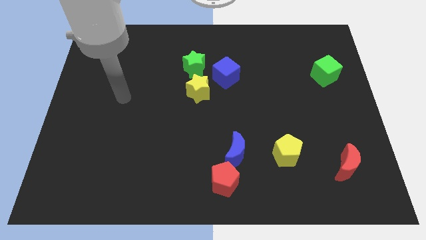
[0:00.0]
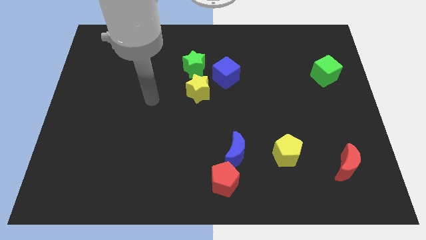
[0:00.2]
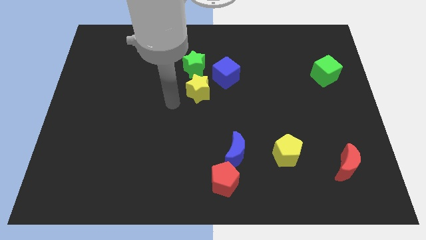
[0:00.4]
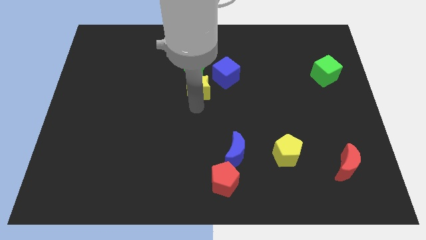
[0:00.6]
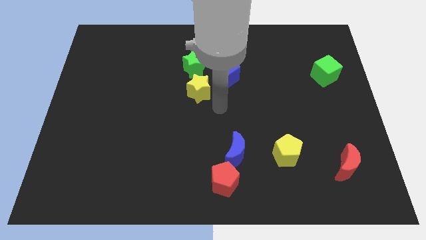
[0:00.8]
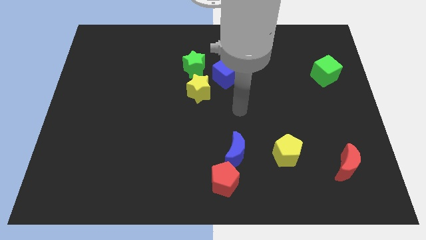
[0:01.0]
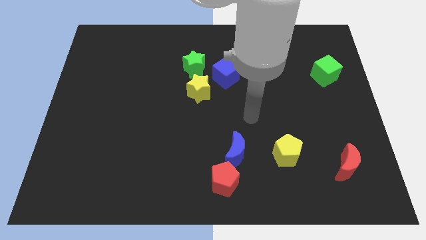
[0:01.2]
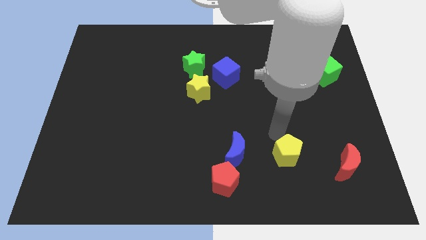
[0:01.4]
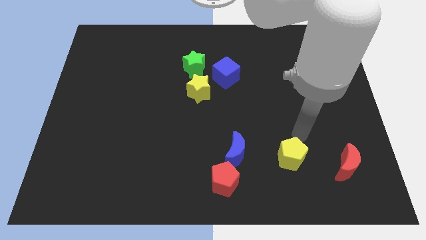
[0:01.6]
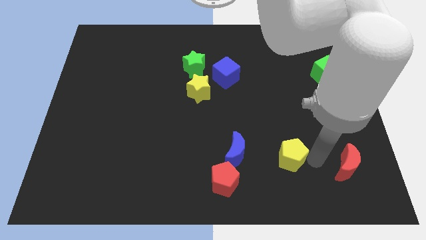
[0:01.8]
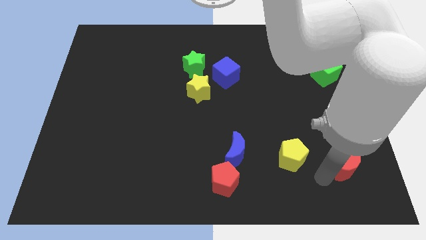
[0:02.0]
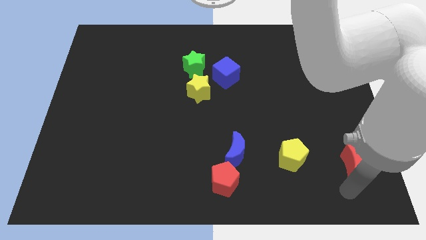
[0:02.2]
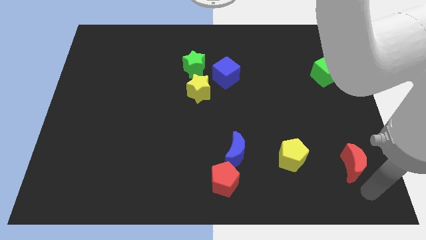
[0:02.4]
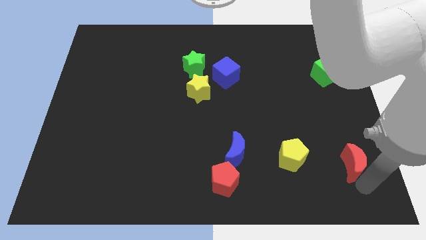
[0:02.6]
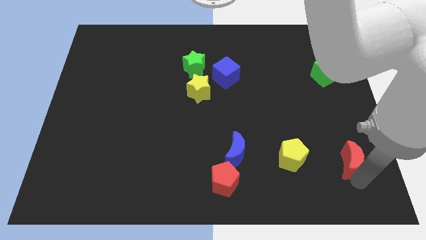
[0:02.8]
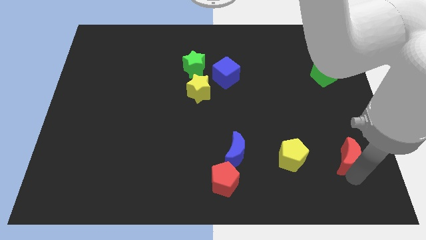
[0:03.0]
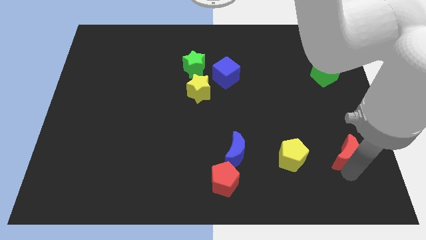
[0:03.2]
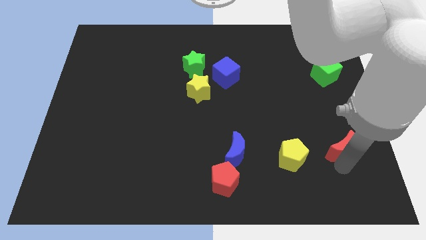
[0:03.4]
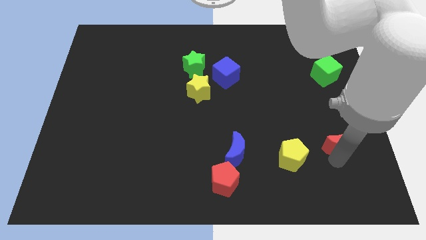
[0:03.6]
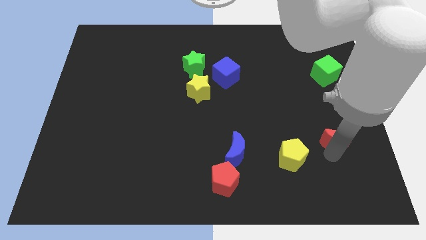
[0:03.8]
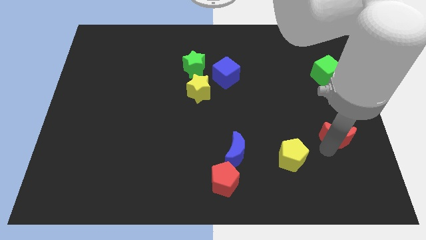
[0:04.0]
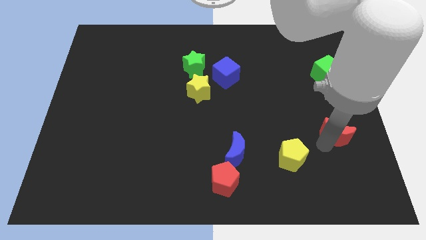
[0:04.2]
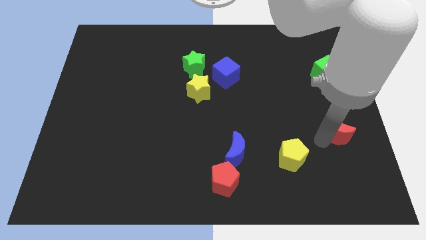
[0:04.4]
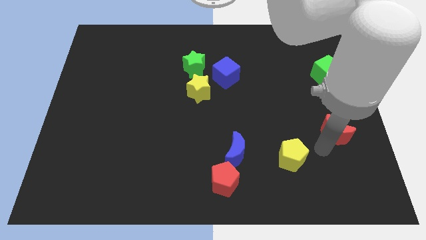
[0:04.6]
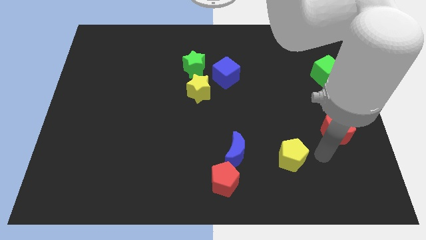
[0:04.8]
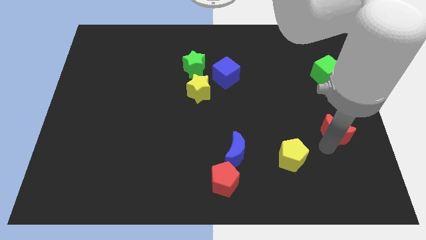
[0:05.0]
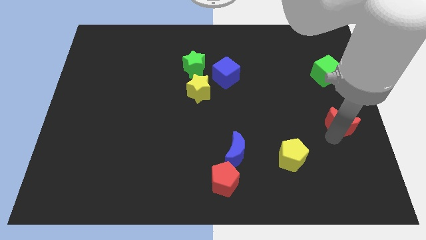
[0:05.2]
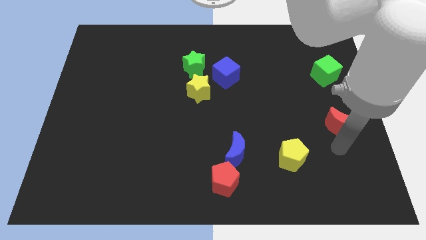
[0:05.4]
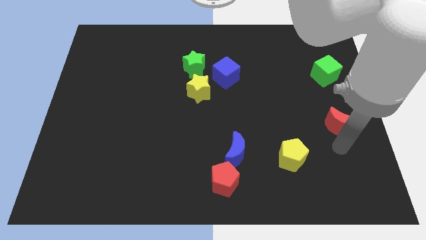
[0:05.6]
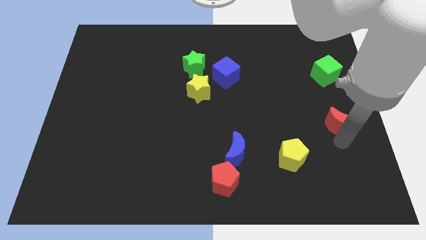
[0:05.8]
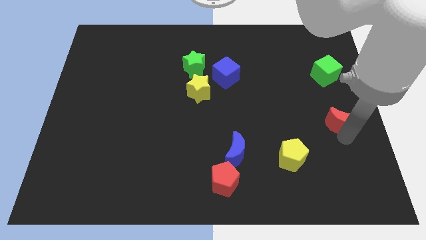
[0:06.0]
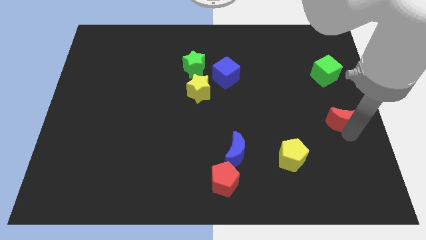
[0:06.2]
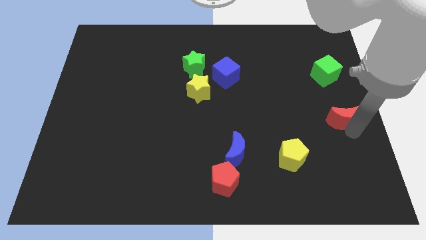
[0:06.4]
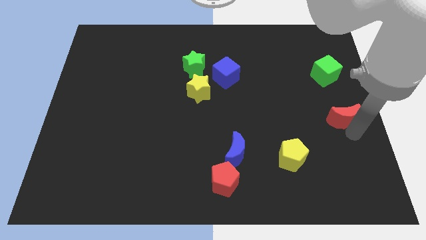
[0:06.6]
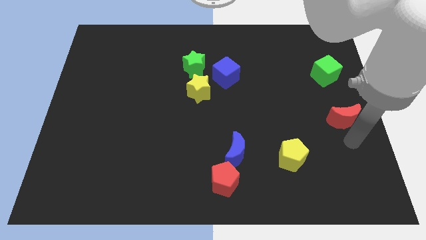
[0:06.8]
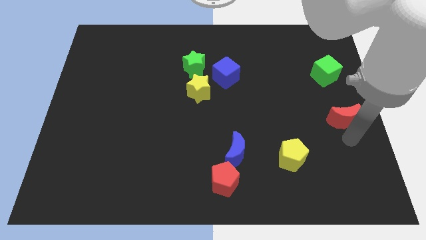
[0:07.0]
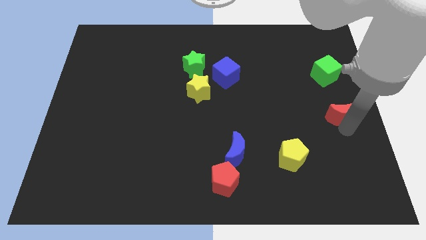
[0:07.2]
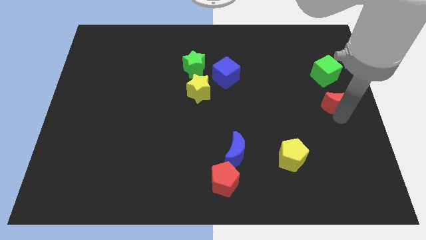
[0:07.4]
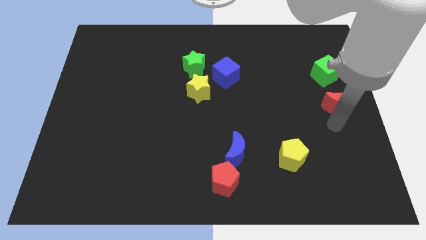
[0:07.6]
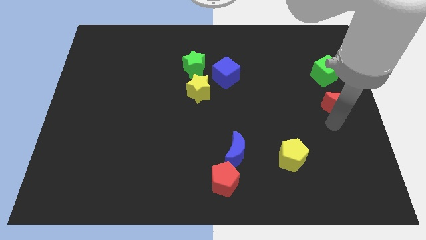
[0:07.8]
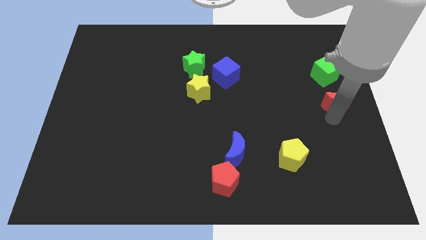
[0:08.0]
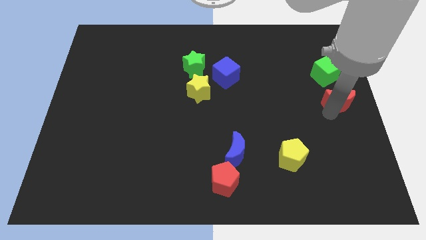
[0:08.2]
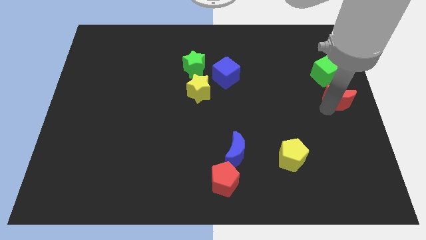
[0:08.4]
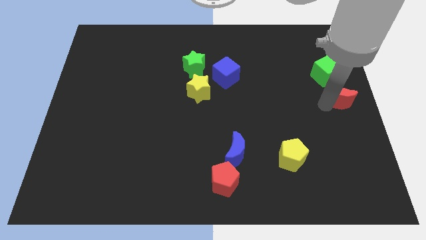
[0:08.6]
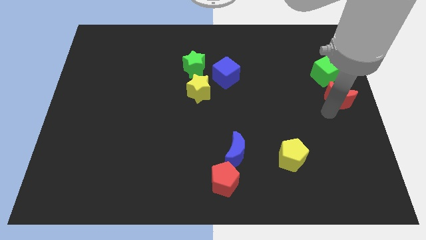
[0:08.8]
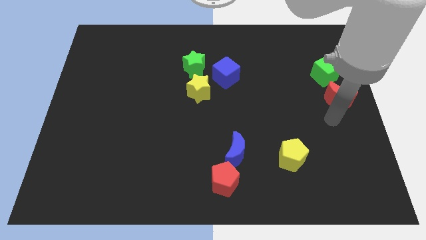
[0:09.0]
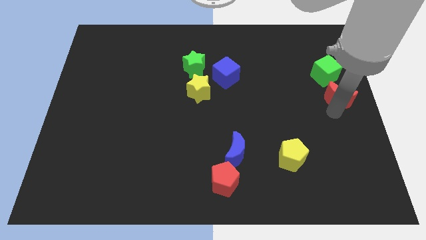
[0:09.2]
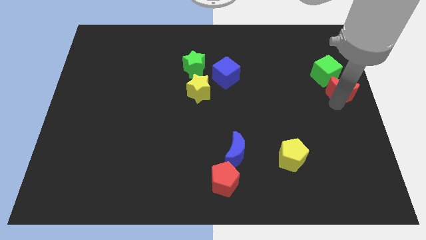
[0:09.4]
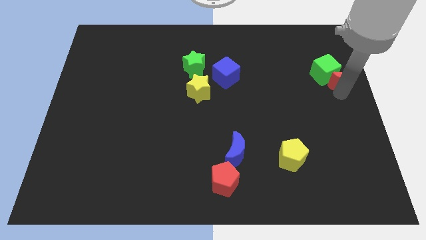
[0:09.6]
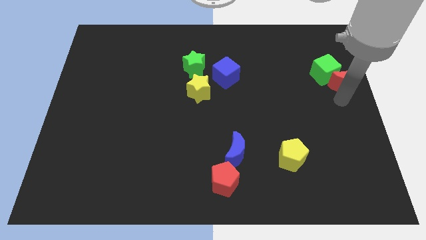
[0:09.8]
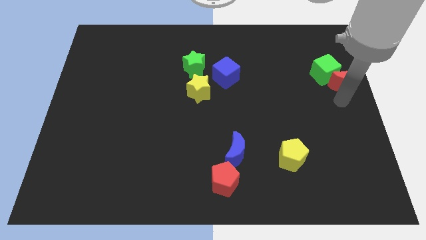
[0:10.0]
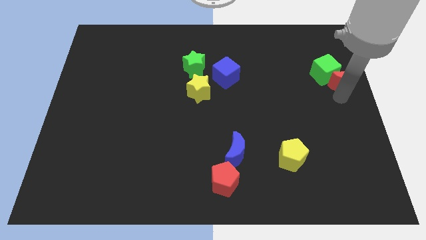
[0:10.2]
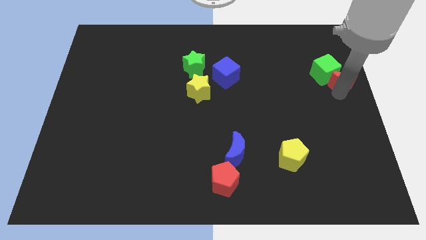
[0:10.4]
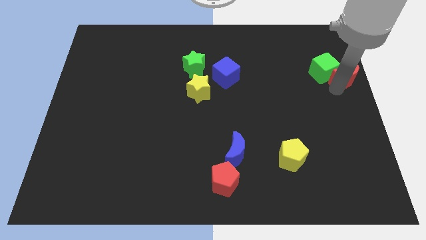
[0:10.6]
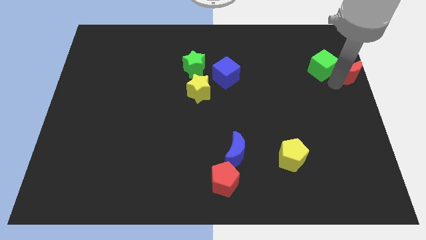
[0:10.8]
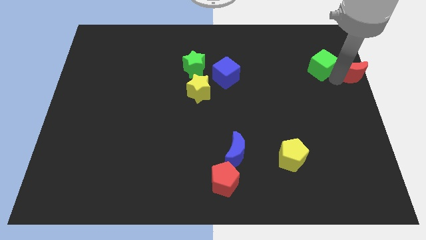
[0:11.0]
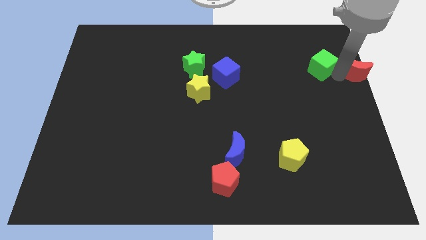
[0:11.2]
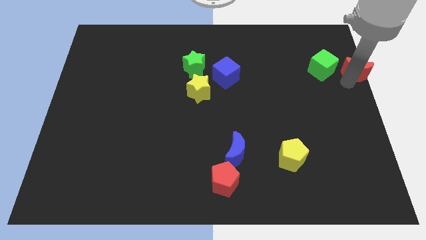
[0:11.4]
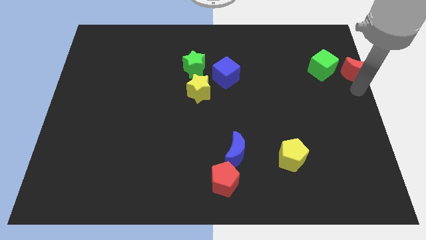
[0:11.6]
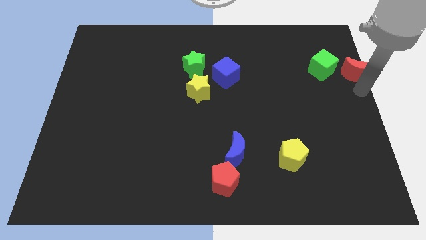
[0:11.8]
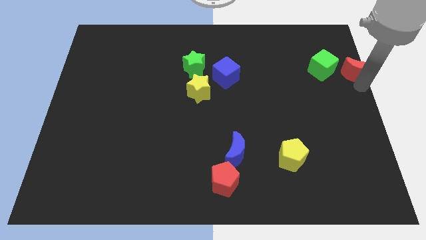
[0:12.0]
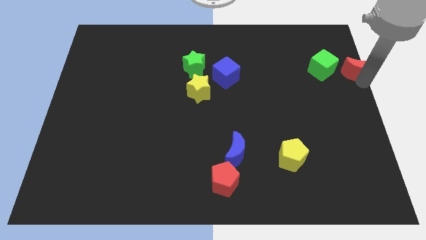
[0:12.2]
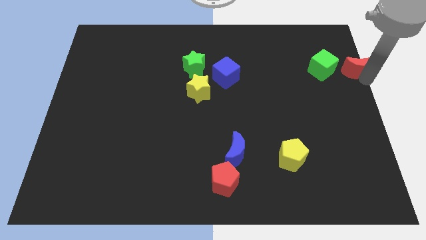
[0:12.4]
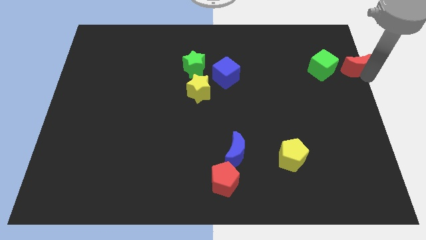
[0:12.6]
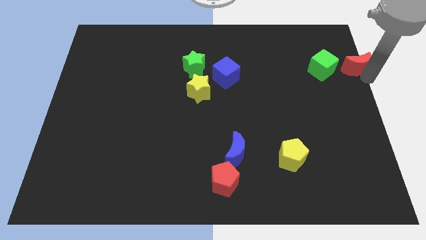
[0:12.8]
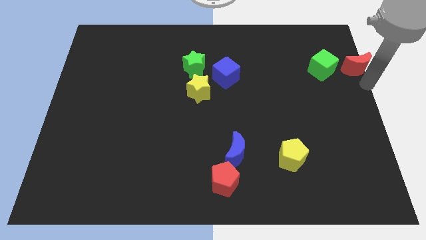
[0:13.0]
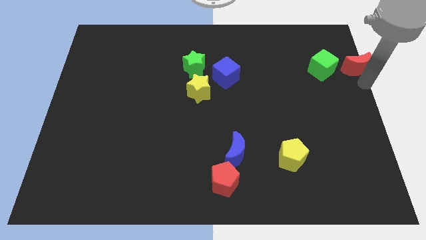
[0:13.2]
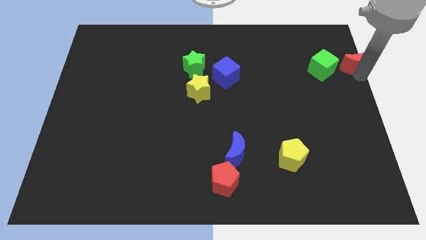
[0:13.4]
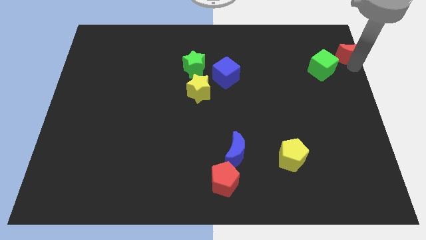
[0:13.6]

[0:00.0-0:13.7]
push the red moon to the top right corner
